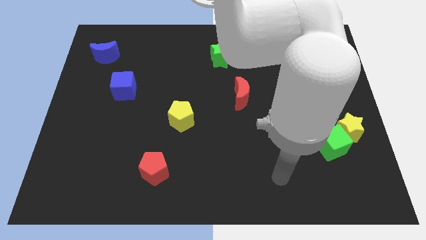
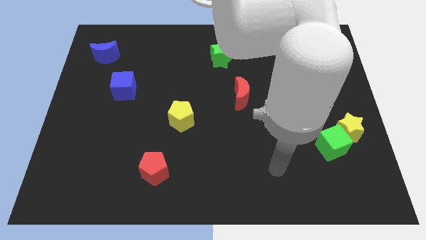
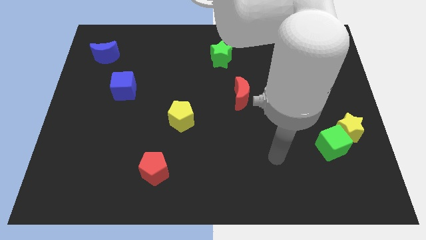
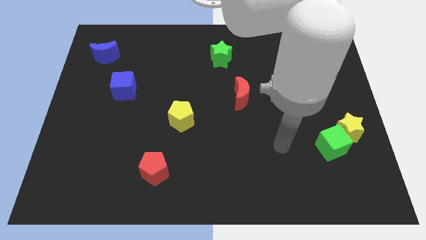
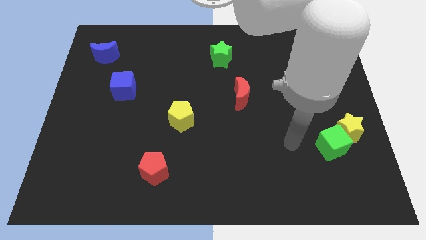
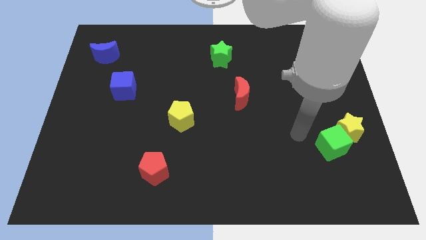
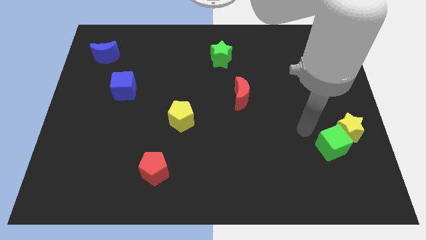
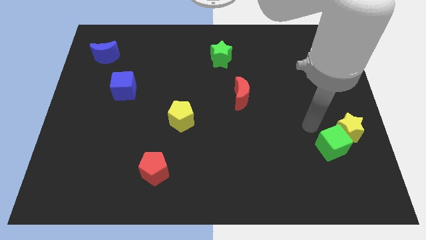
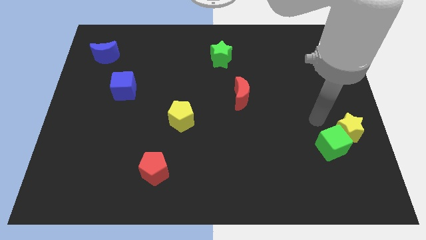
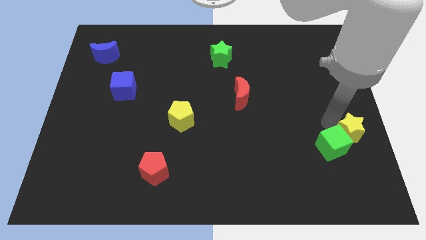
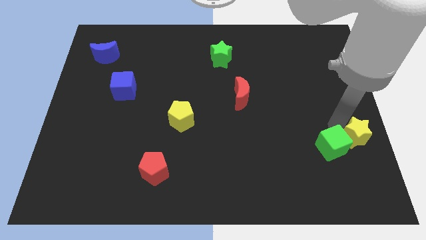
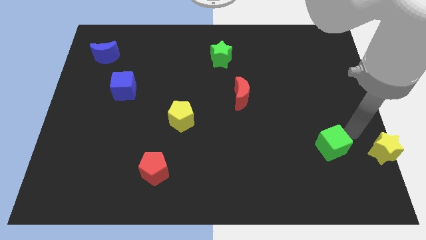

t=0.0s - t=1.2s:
separate the green cube from the yellow star

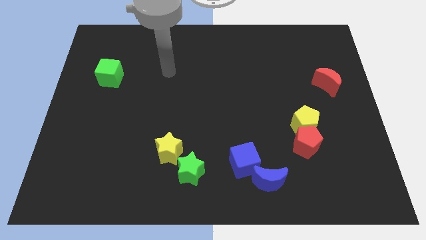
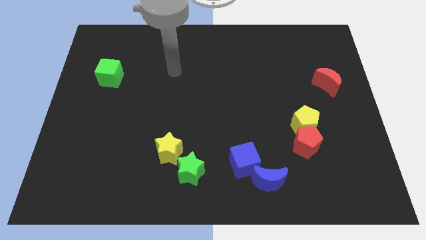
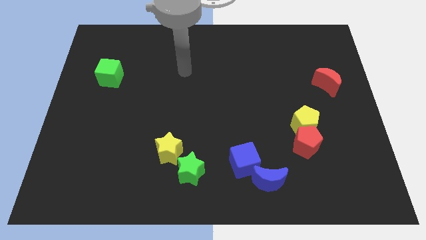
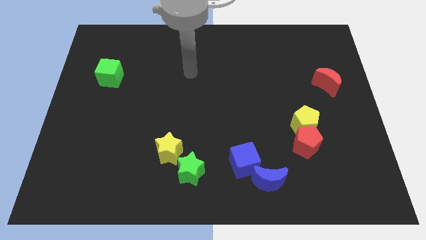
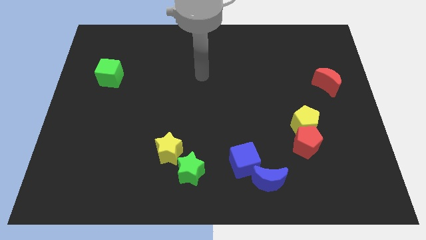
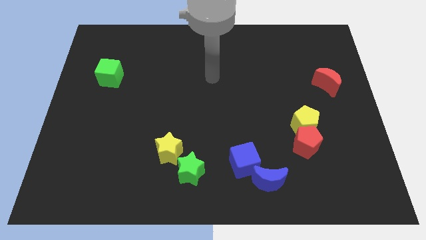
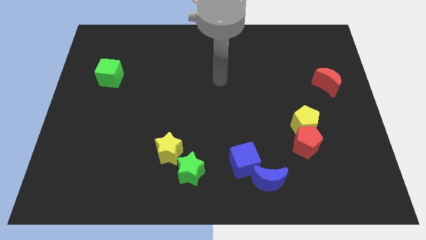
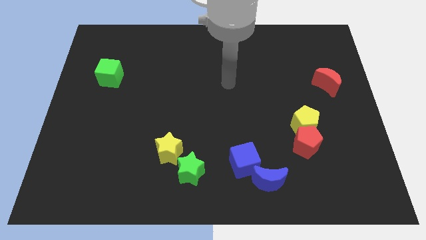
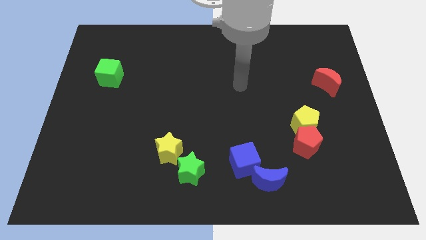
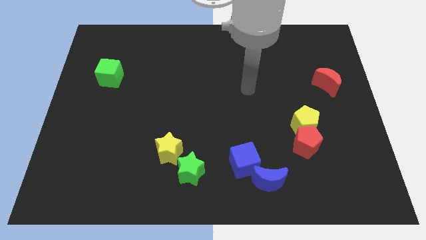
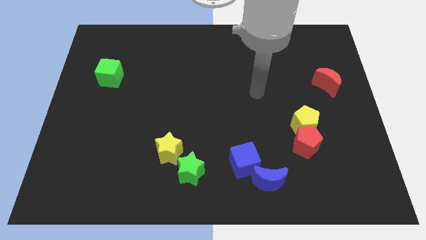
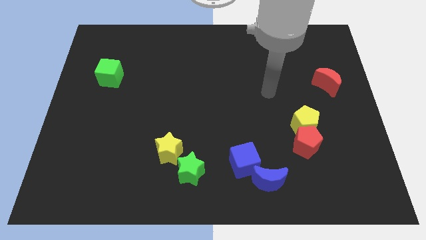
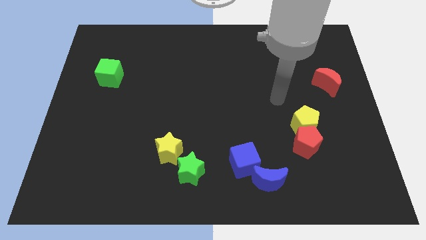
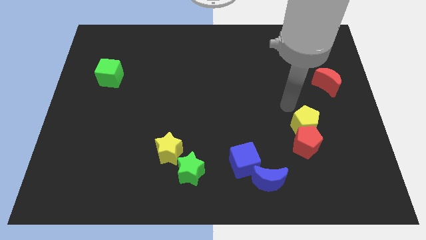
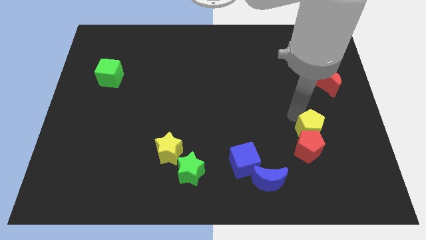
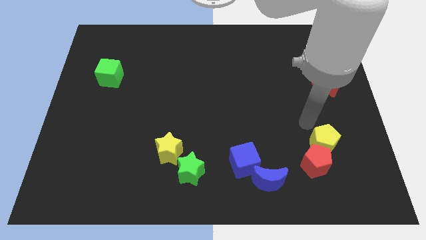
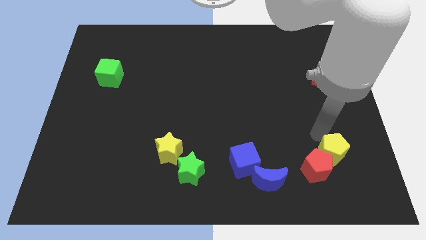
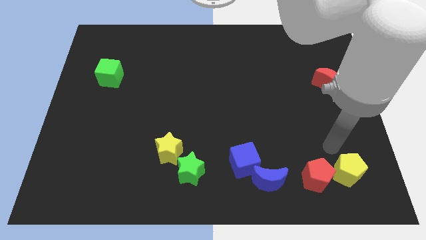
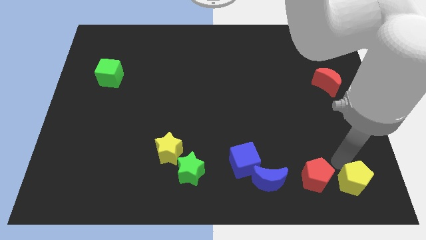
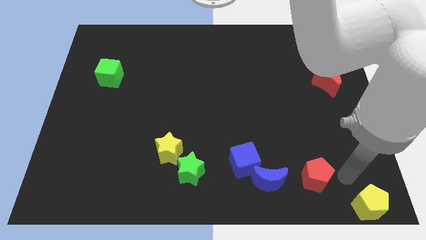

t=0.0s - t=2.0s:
move the red pentagon away from the yellow pentagon

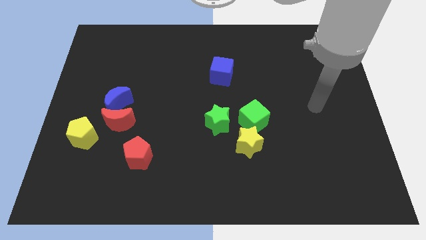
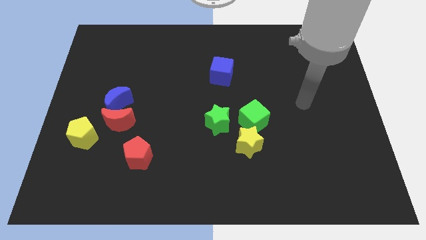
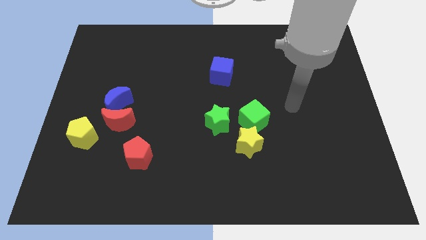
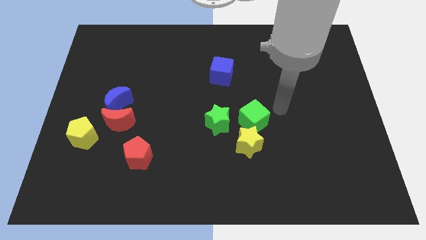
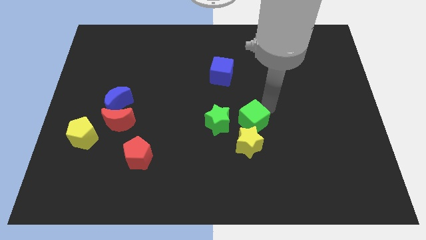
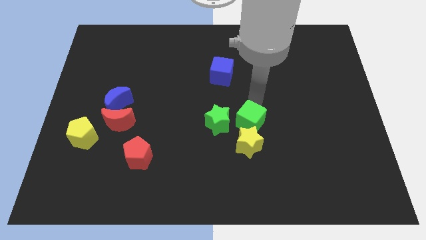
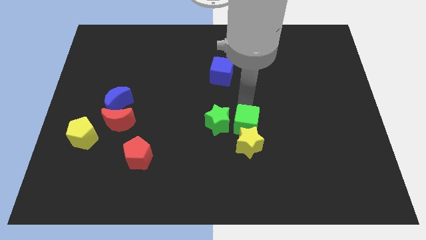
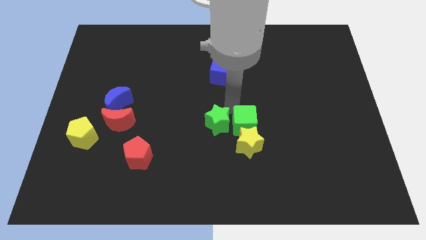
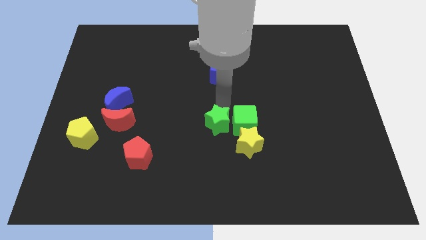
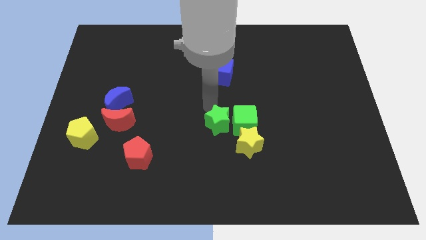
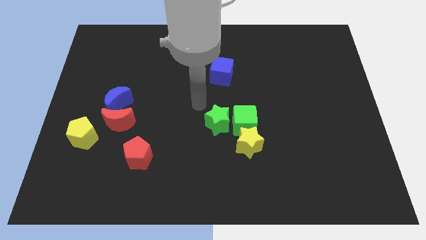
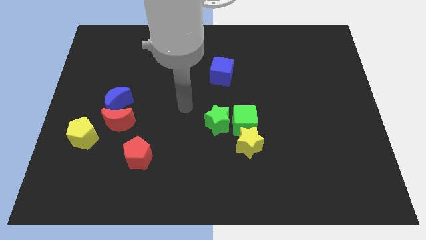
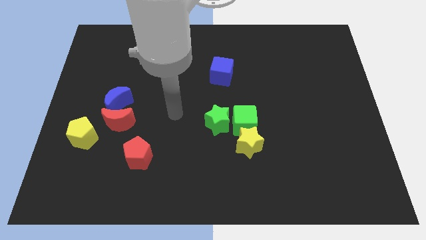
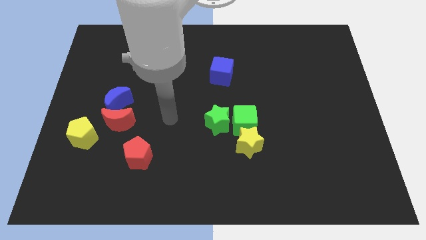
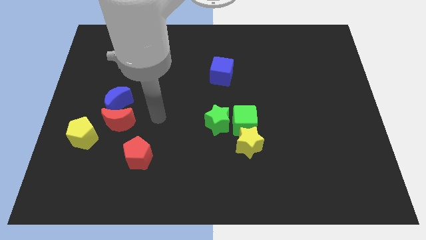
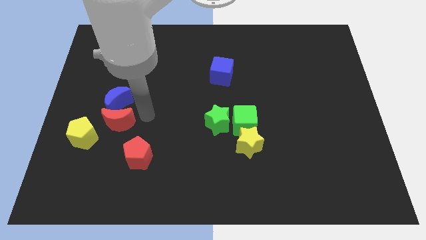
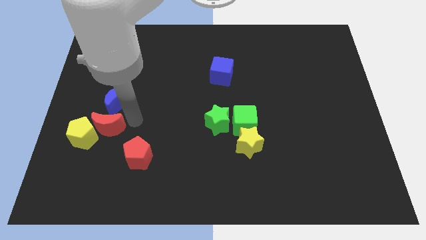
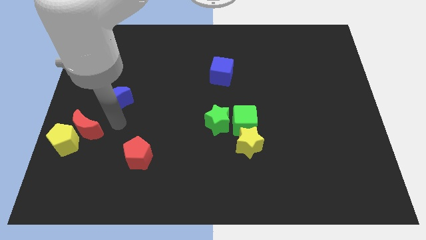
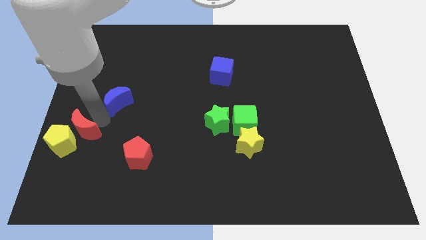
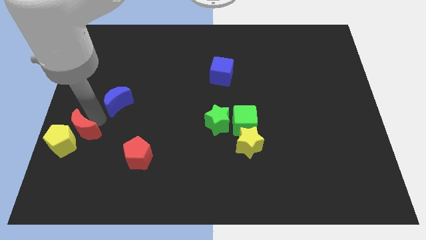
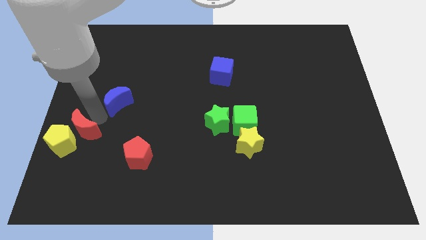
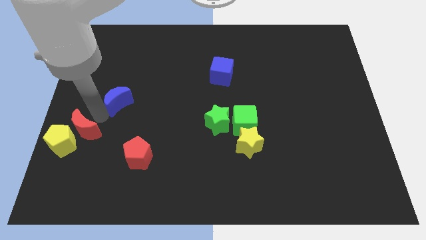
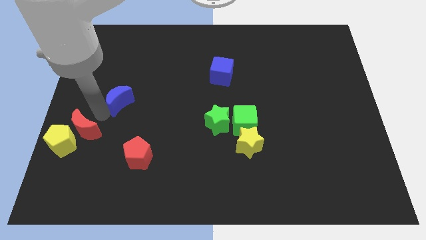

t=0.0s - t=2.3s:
pull the blue moon apart from the red moon

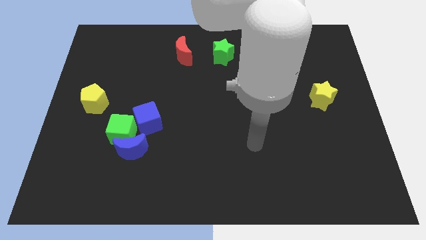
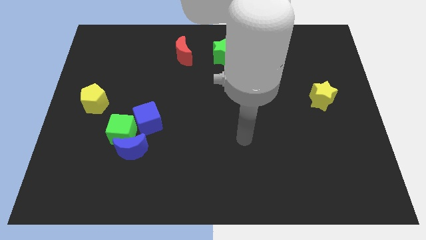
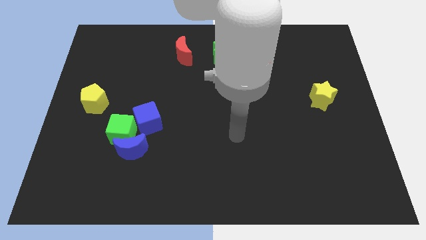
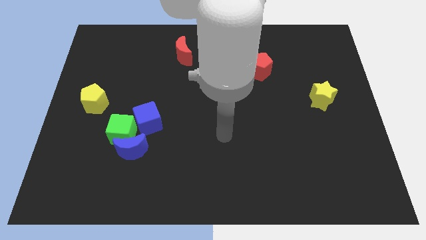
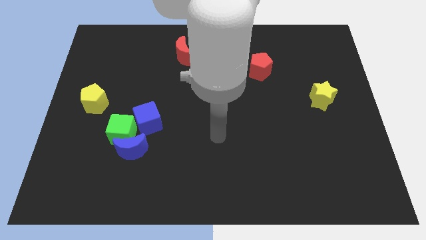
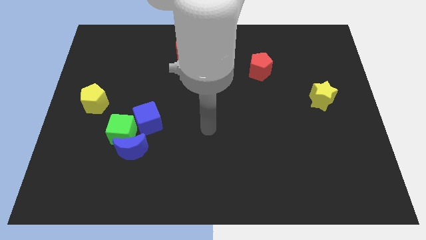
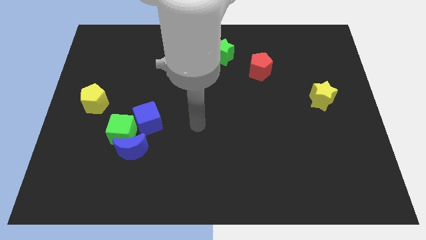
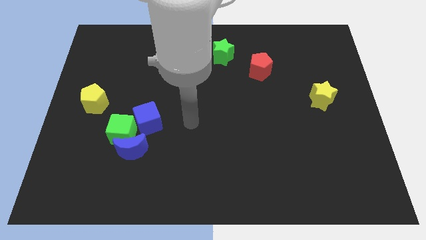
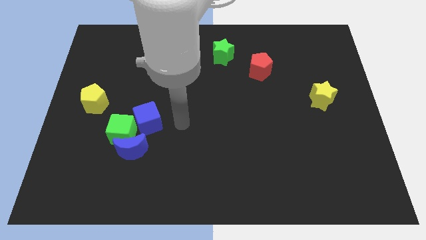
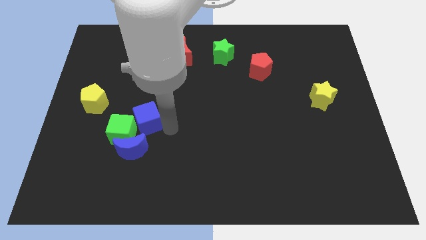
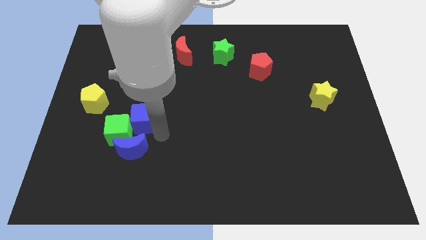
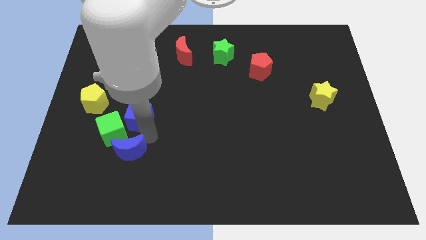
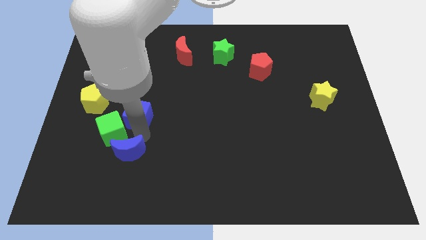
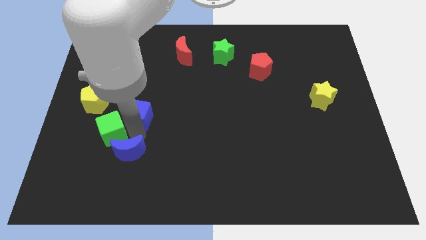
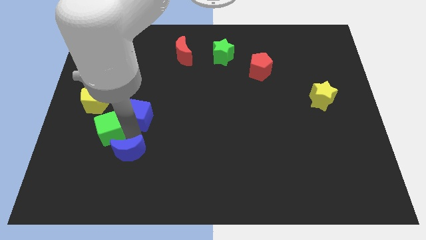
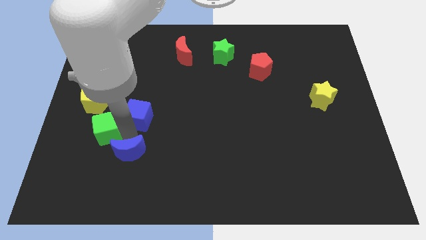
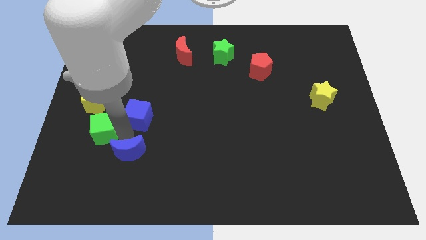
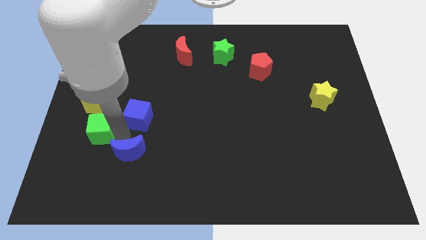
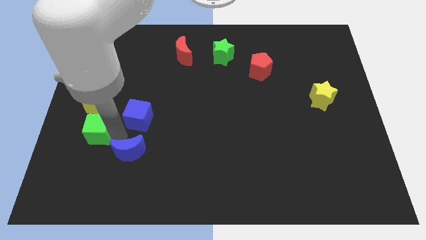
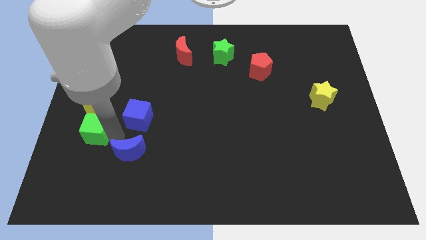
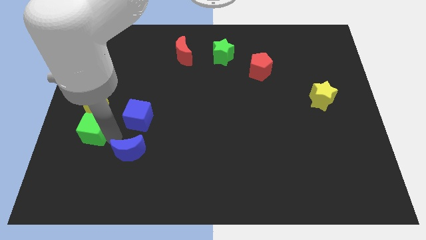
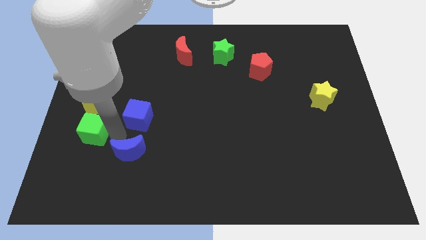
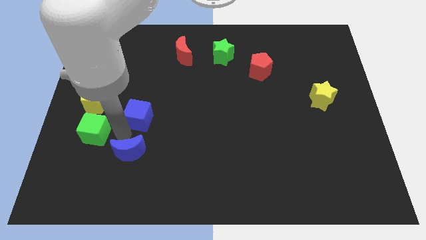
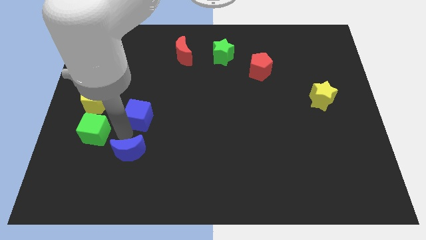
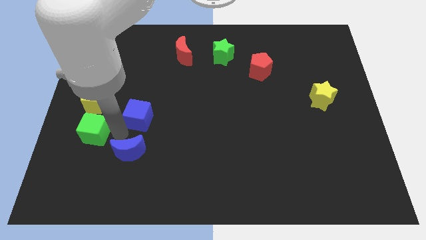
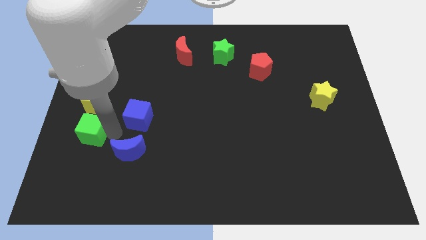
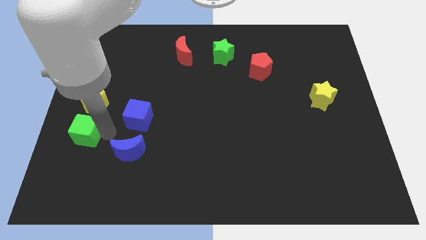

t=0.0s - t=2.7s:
separate the green cube from the blue moon and blue cube

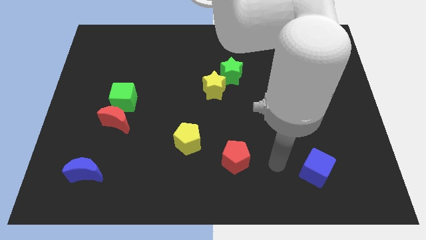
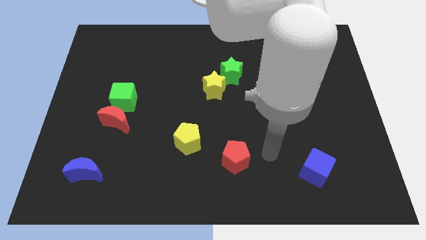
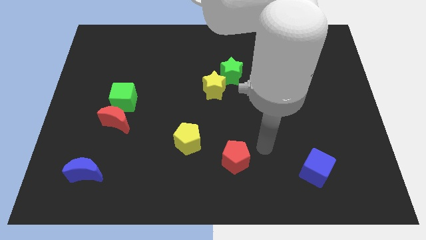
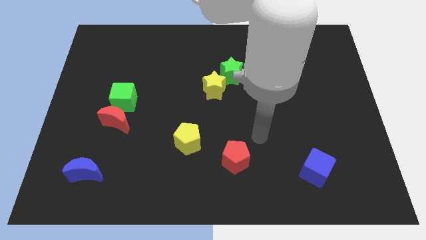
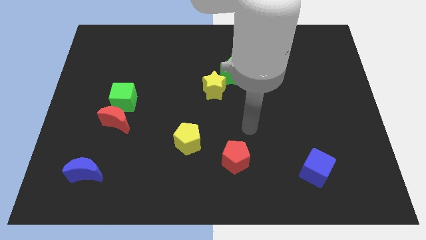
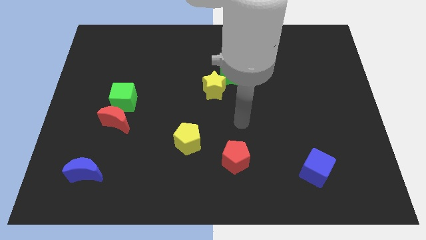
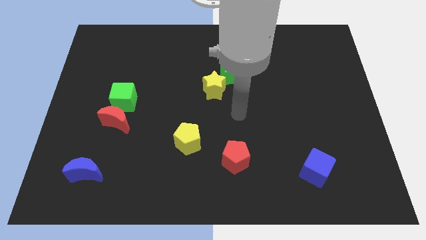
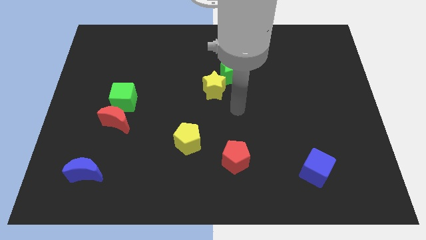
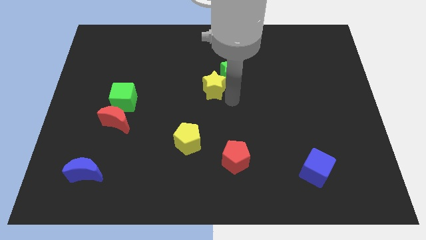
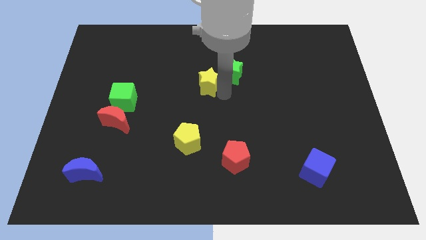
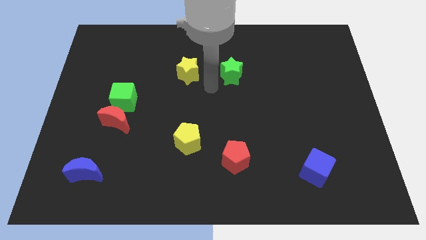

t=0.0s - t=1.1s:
pull the green star apart from the yellow star
